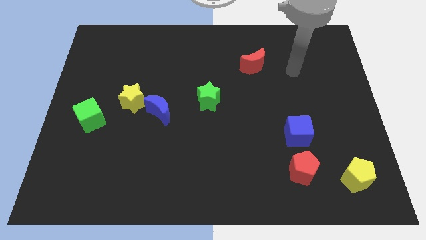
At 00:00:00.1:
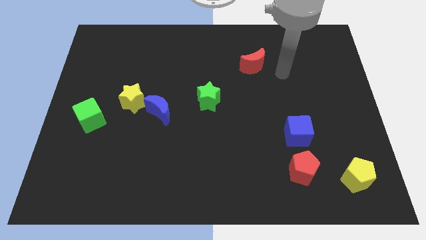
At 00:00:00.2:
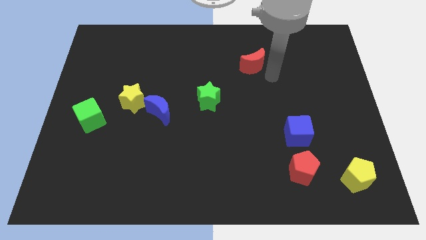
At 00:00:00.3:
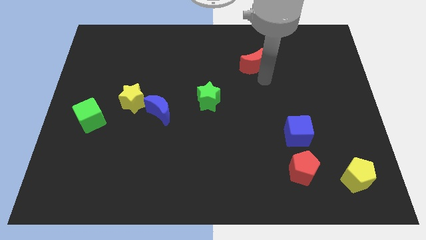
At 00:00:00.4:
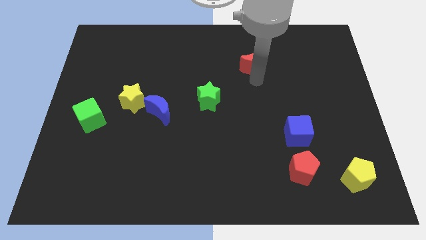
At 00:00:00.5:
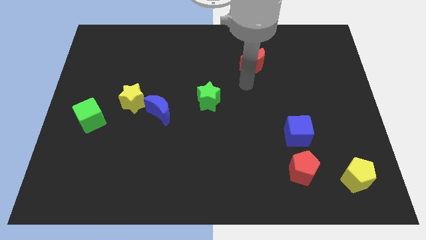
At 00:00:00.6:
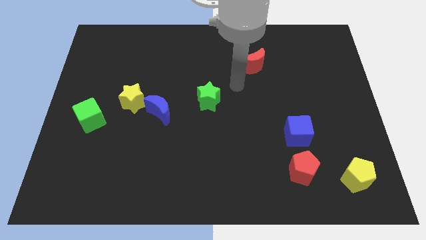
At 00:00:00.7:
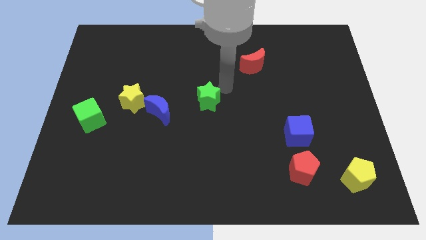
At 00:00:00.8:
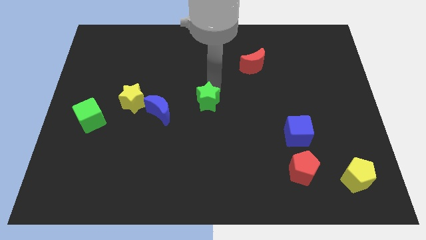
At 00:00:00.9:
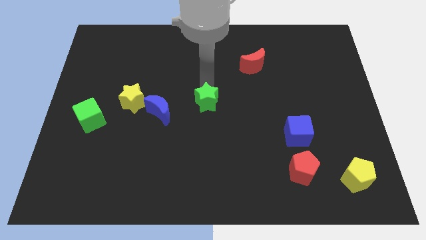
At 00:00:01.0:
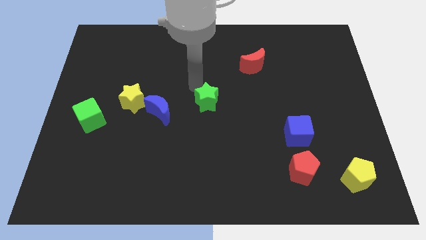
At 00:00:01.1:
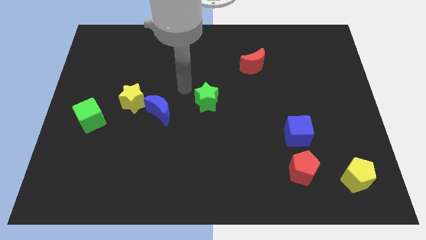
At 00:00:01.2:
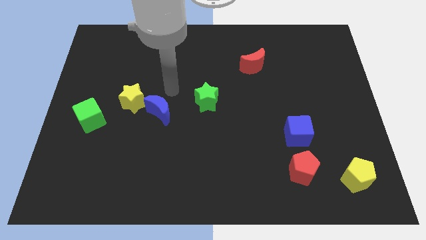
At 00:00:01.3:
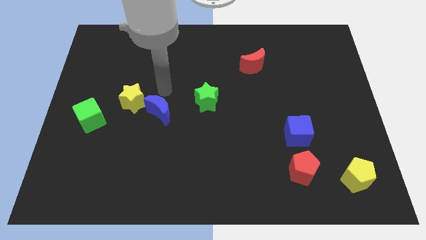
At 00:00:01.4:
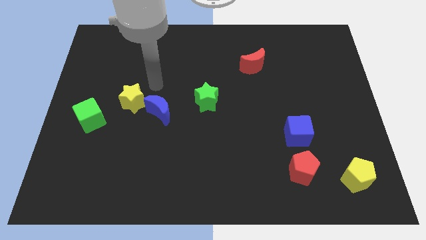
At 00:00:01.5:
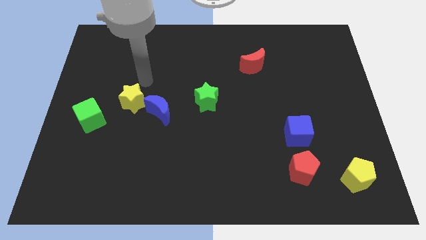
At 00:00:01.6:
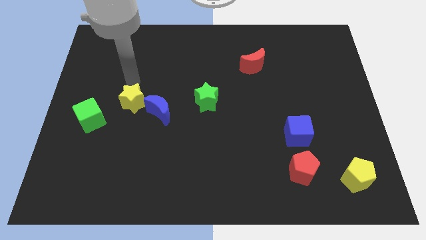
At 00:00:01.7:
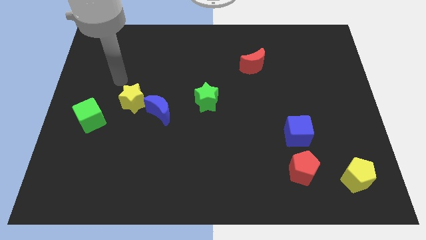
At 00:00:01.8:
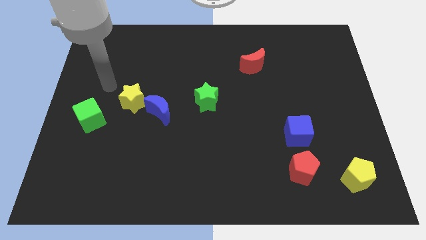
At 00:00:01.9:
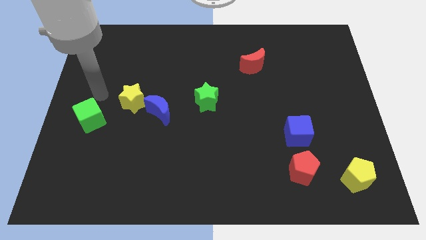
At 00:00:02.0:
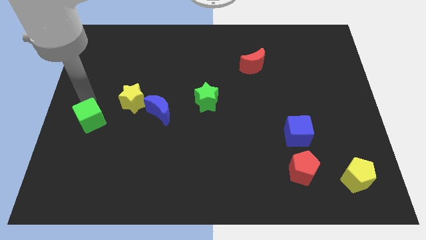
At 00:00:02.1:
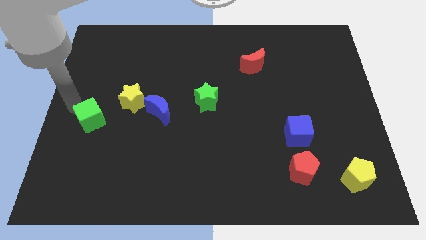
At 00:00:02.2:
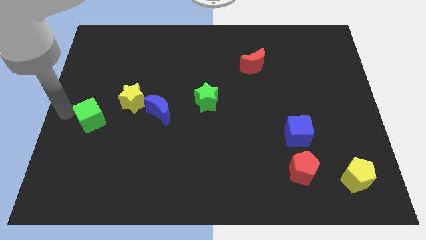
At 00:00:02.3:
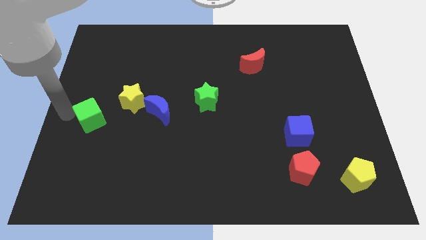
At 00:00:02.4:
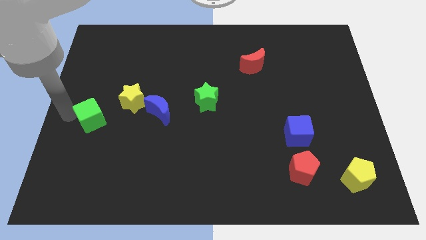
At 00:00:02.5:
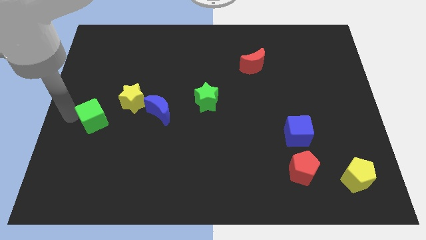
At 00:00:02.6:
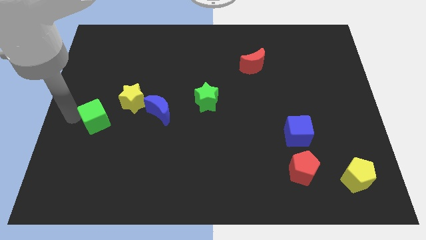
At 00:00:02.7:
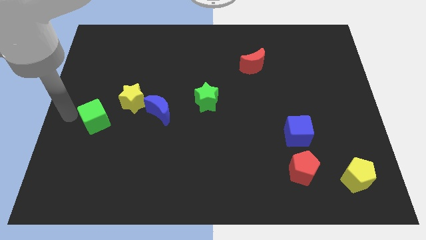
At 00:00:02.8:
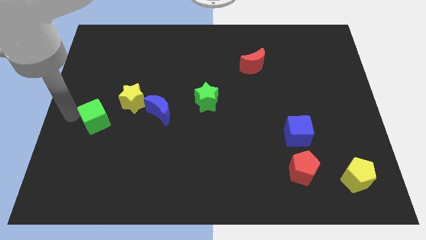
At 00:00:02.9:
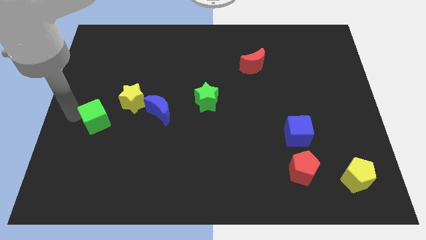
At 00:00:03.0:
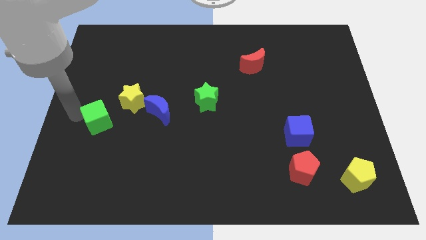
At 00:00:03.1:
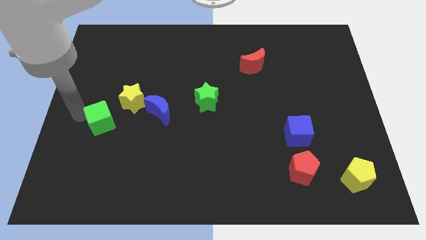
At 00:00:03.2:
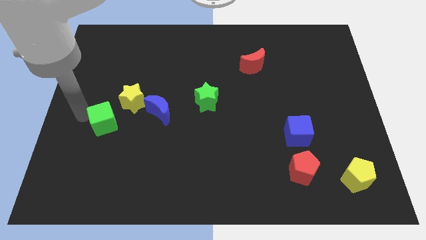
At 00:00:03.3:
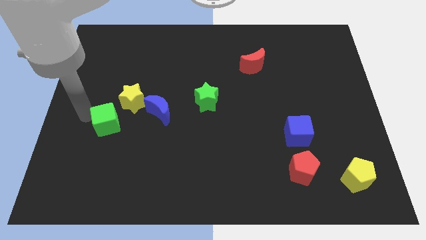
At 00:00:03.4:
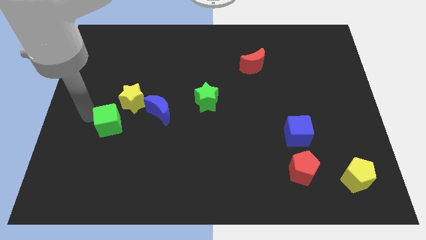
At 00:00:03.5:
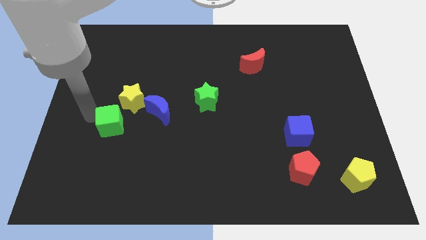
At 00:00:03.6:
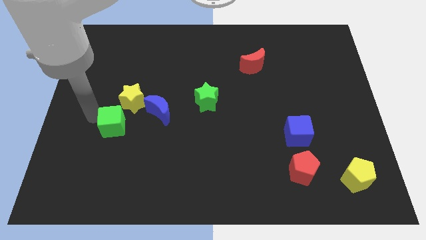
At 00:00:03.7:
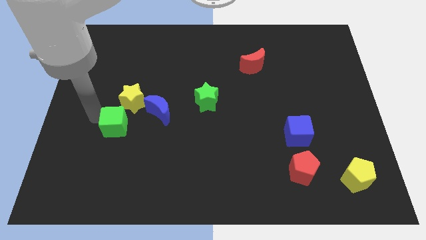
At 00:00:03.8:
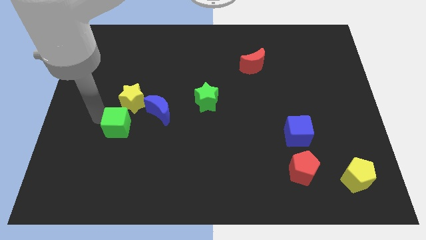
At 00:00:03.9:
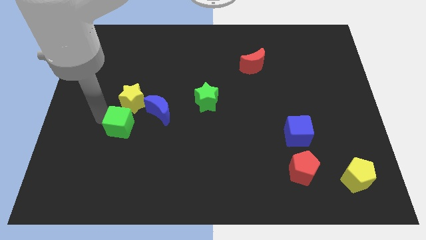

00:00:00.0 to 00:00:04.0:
slide the green cube right slightly

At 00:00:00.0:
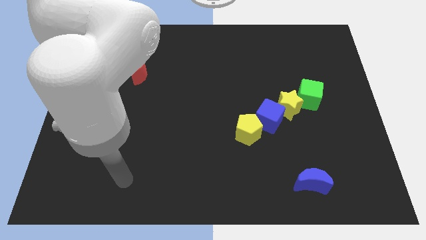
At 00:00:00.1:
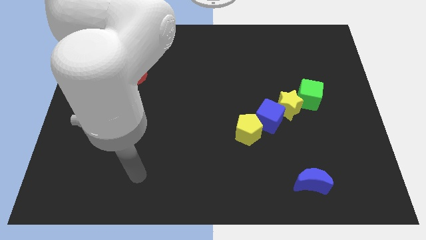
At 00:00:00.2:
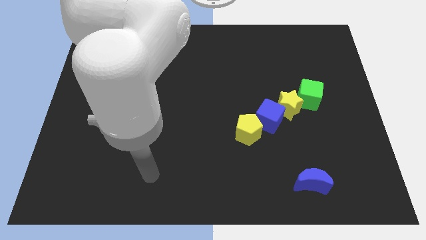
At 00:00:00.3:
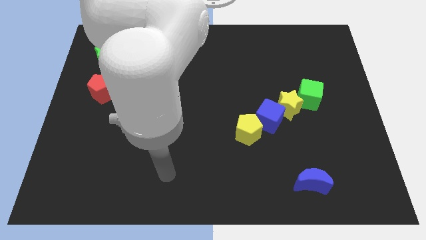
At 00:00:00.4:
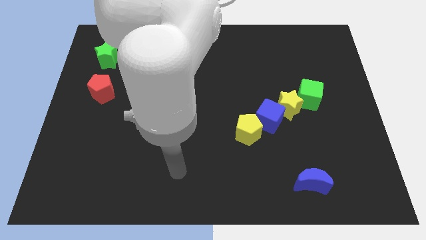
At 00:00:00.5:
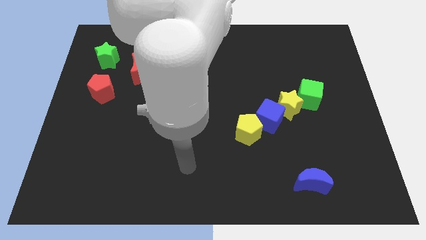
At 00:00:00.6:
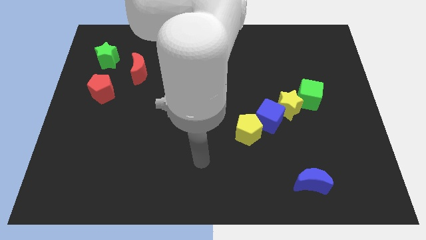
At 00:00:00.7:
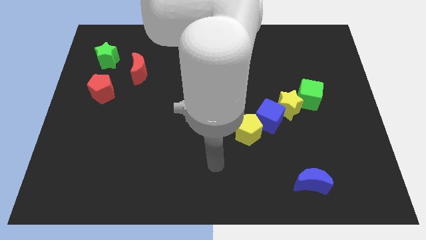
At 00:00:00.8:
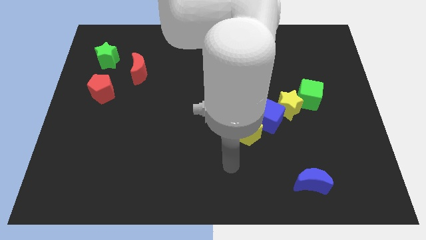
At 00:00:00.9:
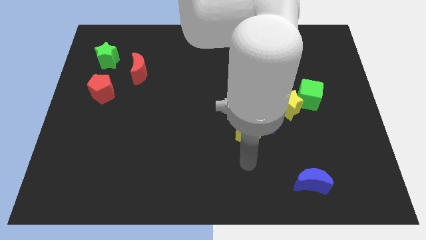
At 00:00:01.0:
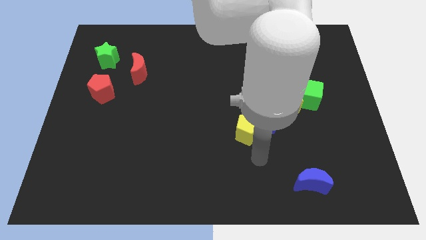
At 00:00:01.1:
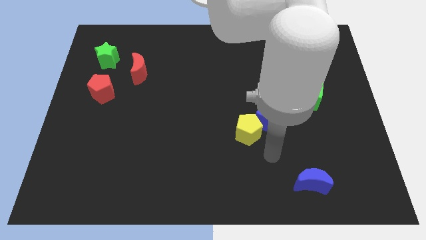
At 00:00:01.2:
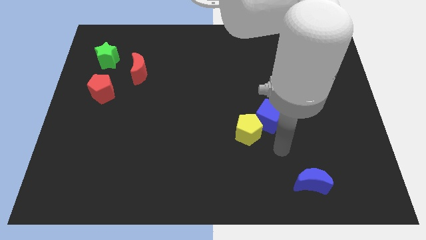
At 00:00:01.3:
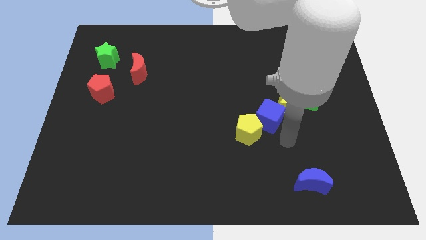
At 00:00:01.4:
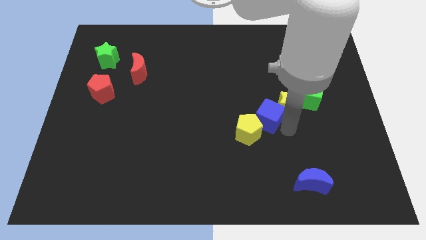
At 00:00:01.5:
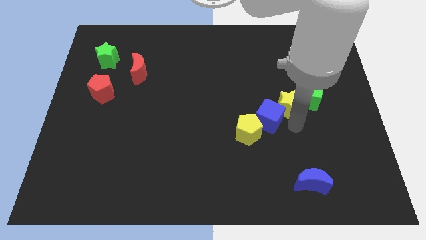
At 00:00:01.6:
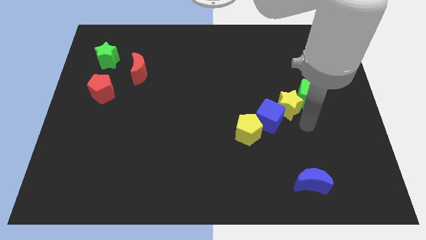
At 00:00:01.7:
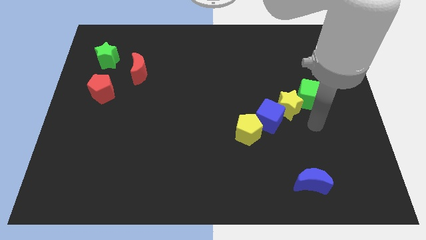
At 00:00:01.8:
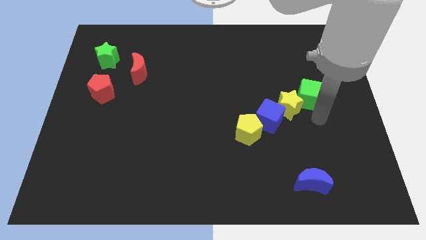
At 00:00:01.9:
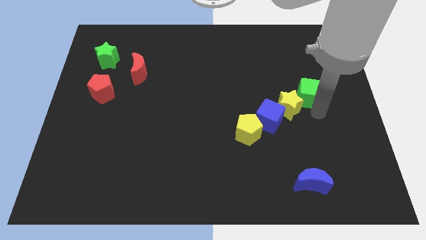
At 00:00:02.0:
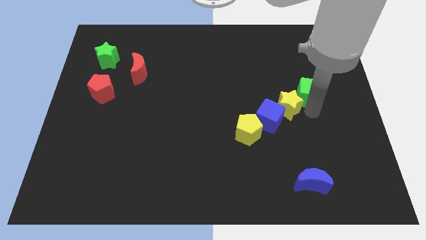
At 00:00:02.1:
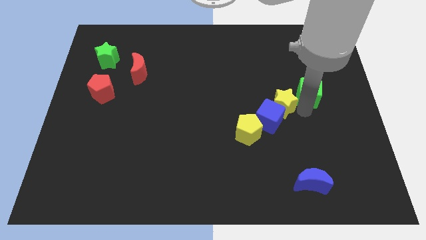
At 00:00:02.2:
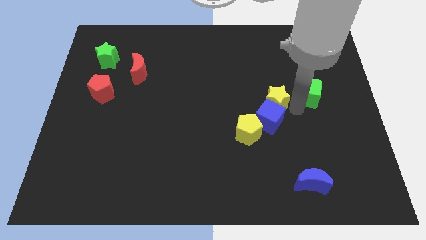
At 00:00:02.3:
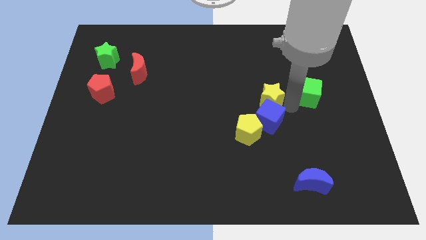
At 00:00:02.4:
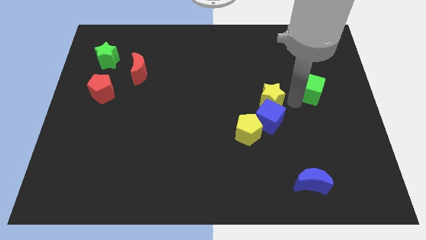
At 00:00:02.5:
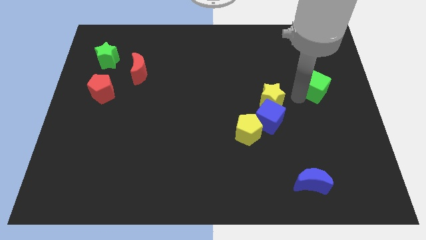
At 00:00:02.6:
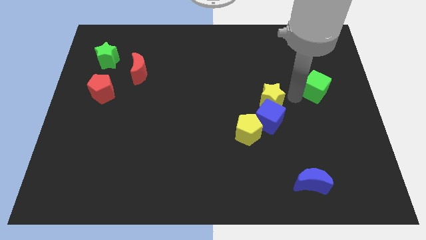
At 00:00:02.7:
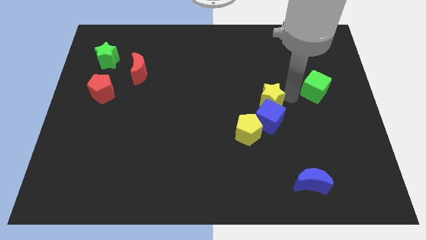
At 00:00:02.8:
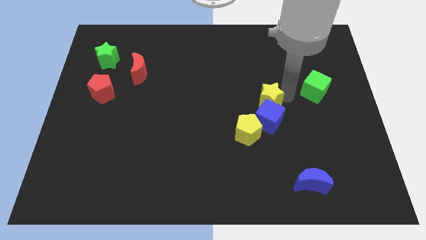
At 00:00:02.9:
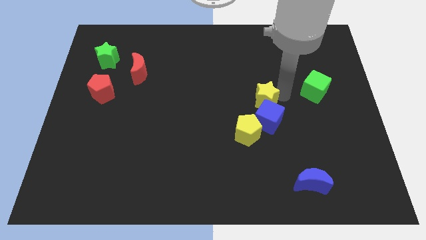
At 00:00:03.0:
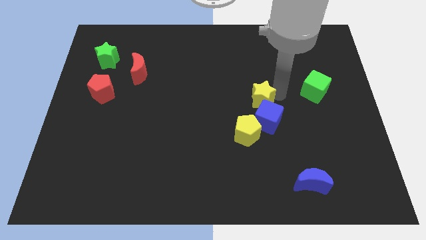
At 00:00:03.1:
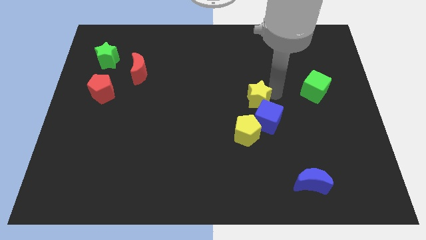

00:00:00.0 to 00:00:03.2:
slightly push the yellow star left

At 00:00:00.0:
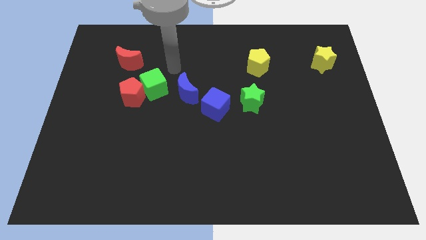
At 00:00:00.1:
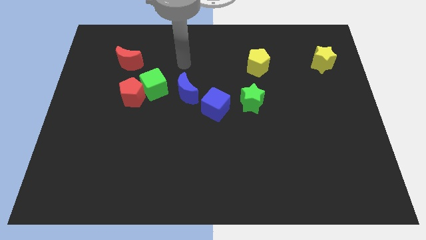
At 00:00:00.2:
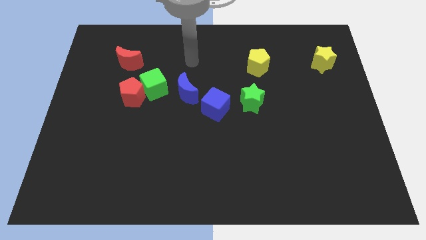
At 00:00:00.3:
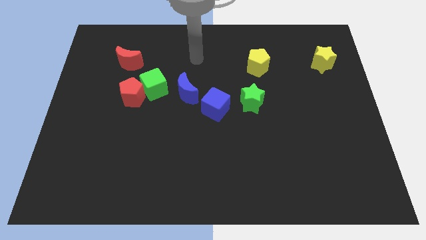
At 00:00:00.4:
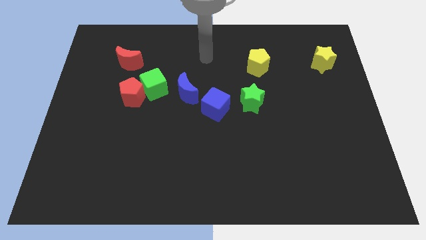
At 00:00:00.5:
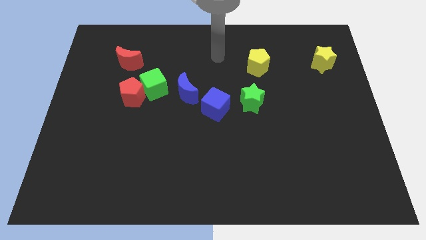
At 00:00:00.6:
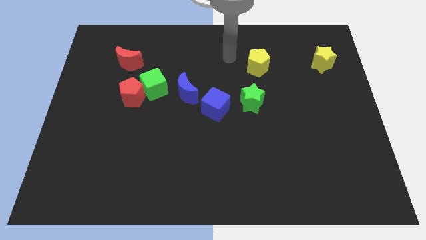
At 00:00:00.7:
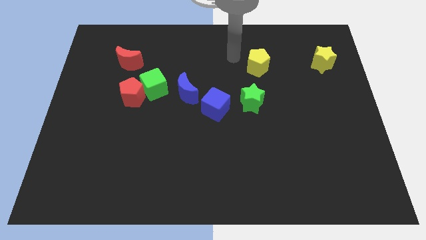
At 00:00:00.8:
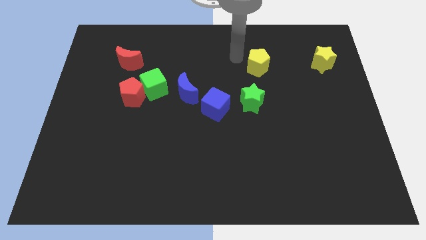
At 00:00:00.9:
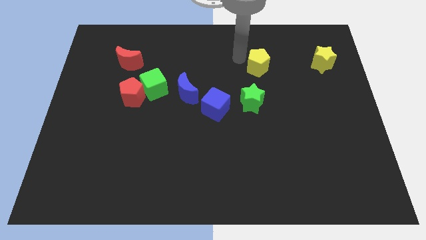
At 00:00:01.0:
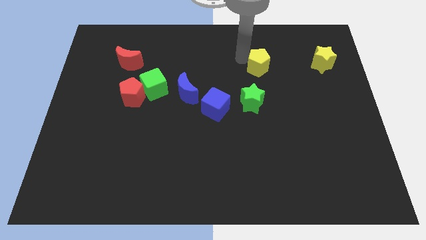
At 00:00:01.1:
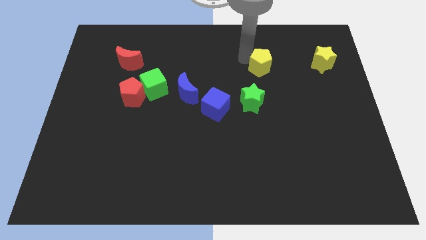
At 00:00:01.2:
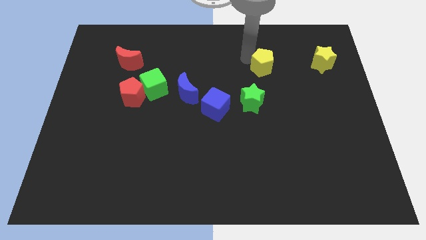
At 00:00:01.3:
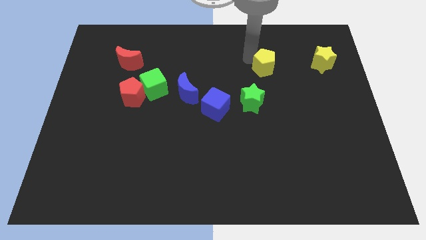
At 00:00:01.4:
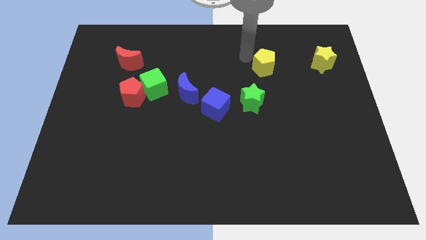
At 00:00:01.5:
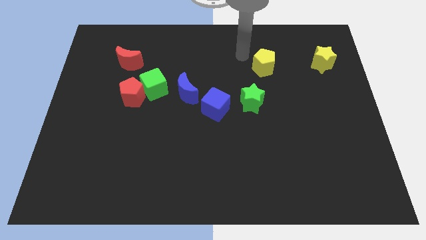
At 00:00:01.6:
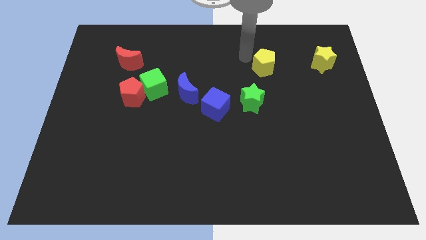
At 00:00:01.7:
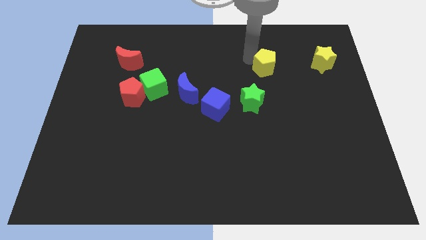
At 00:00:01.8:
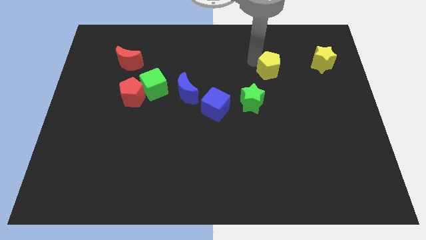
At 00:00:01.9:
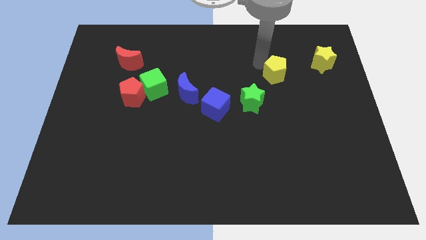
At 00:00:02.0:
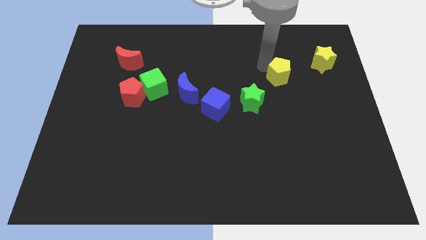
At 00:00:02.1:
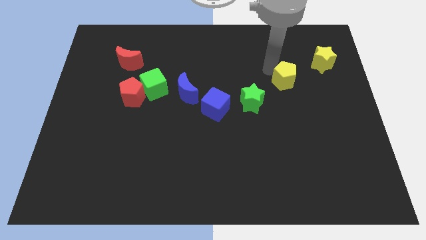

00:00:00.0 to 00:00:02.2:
move the yellow pentagon diagonally down and to the right a little
